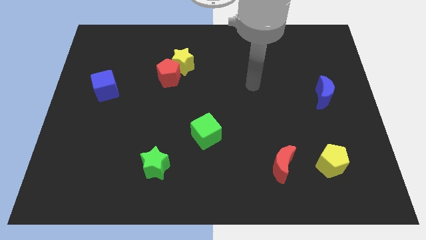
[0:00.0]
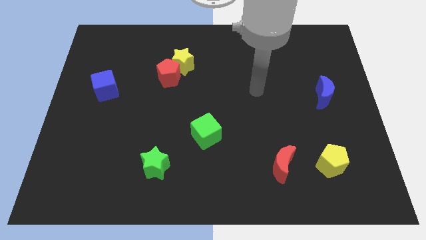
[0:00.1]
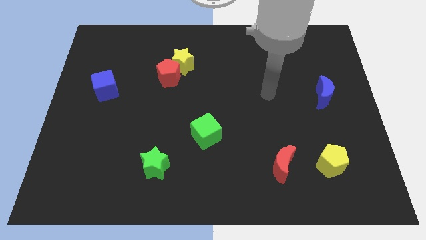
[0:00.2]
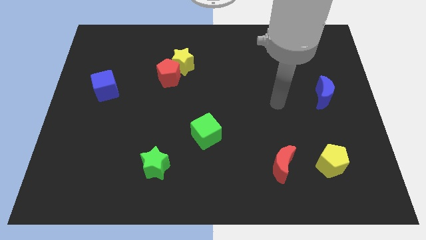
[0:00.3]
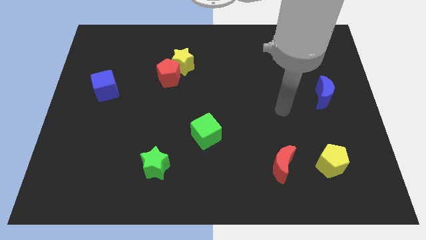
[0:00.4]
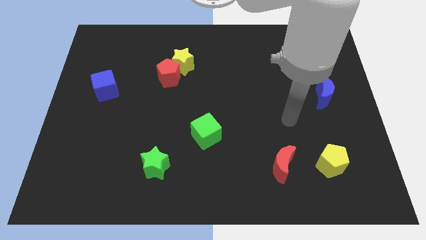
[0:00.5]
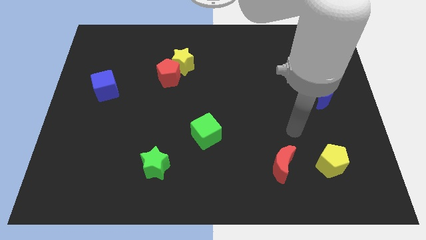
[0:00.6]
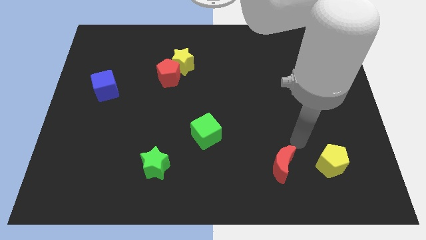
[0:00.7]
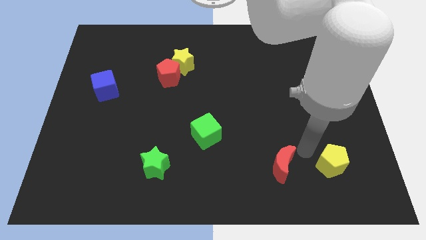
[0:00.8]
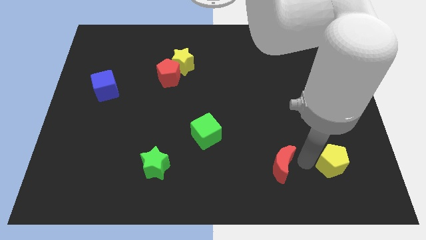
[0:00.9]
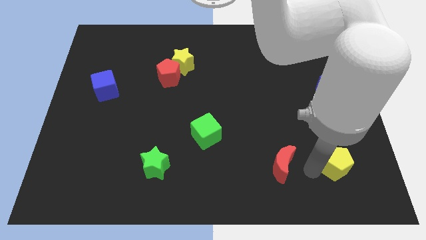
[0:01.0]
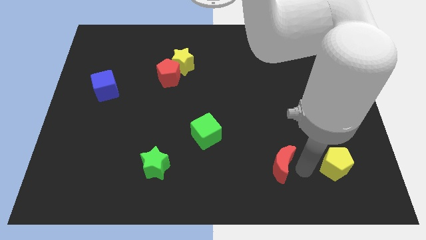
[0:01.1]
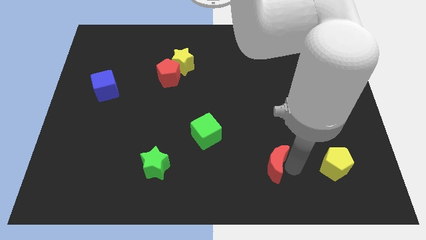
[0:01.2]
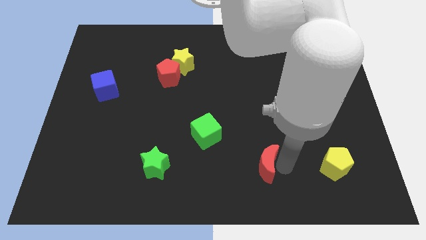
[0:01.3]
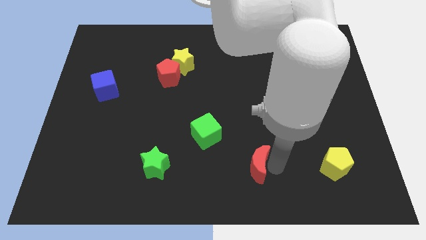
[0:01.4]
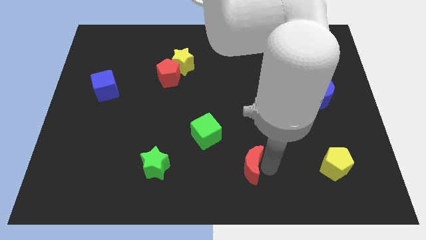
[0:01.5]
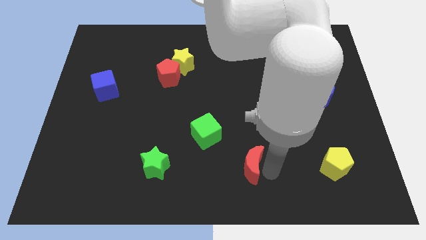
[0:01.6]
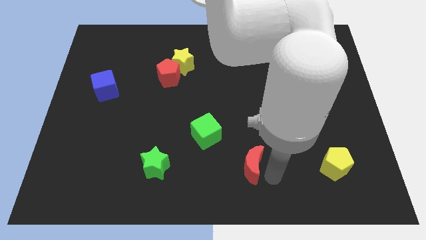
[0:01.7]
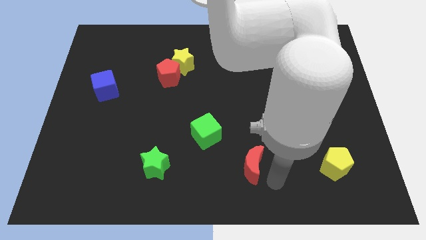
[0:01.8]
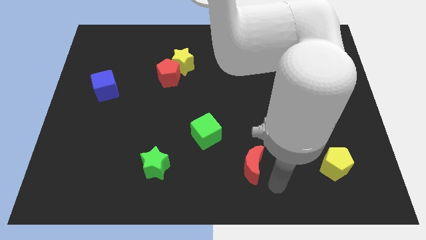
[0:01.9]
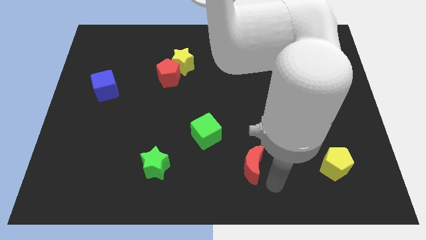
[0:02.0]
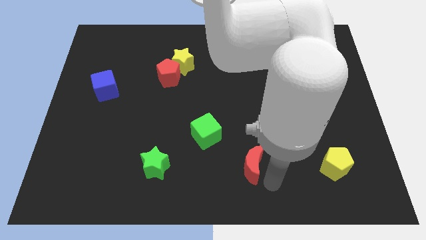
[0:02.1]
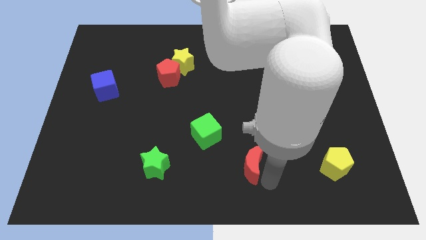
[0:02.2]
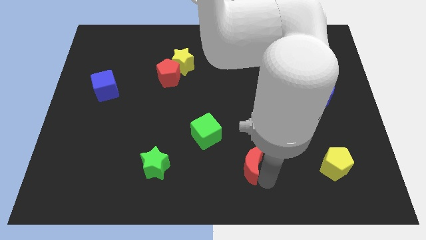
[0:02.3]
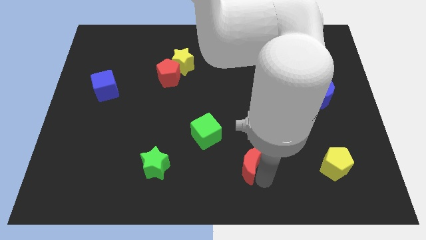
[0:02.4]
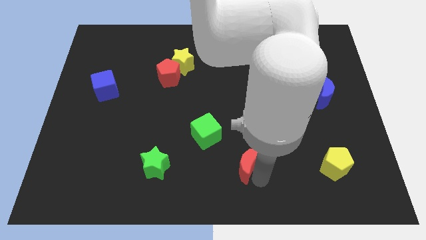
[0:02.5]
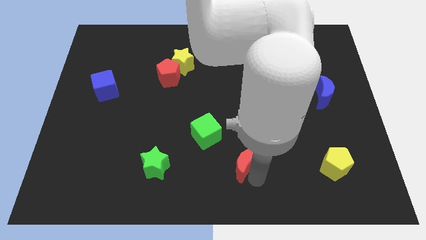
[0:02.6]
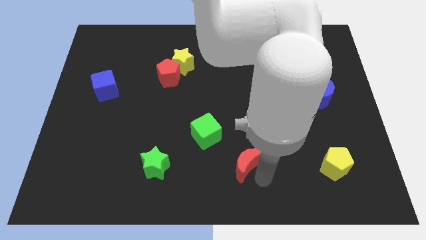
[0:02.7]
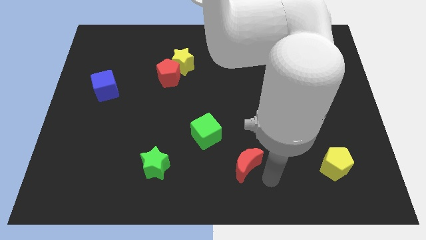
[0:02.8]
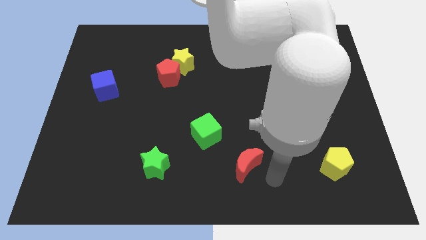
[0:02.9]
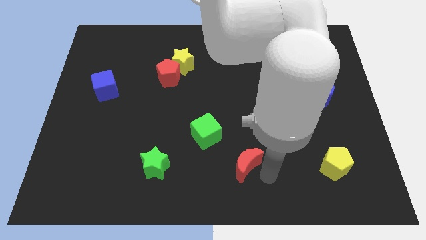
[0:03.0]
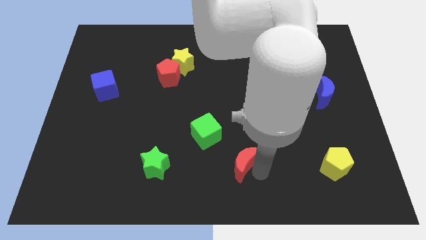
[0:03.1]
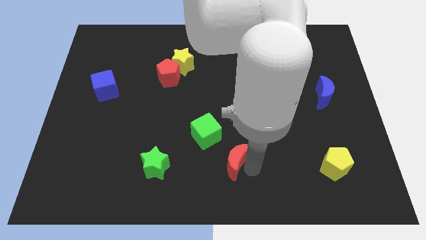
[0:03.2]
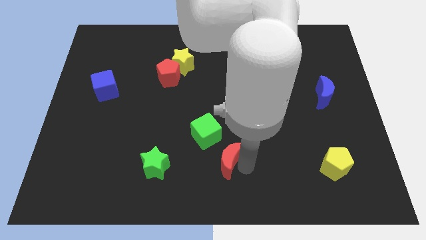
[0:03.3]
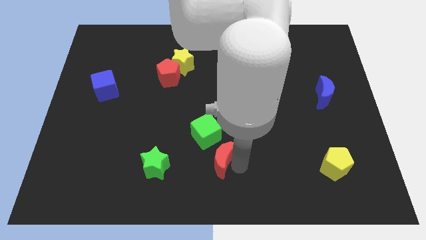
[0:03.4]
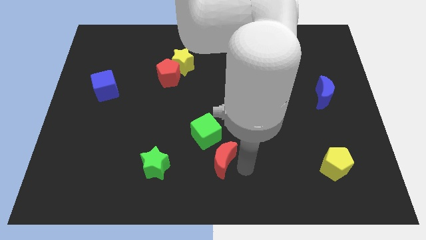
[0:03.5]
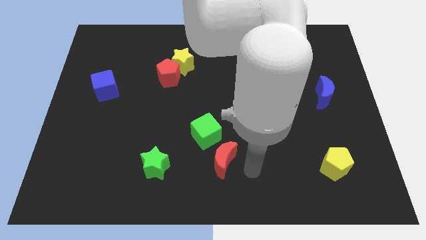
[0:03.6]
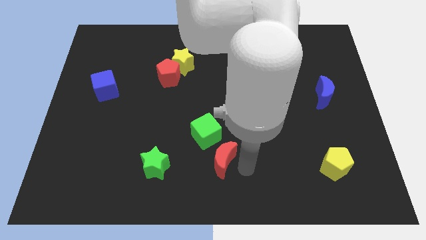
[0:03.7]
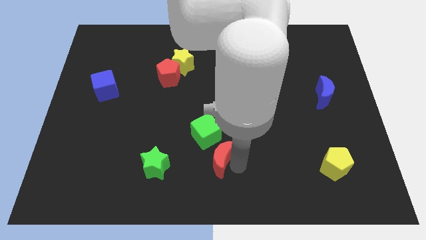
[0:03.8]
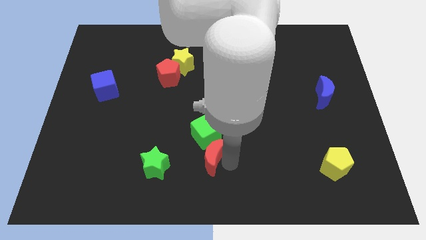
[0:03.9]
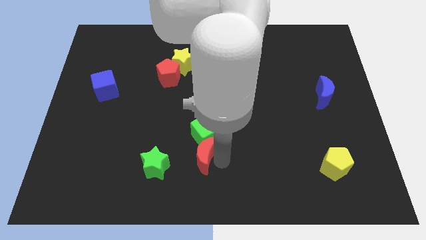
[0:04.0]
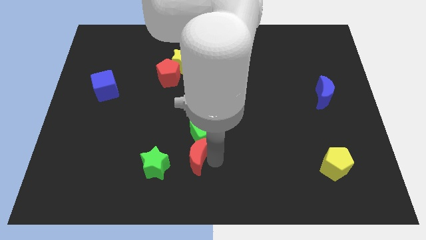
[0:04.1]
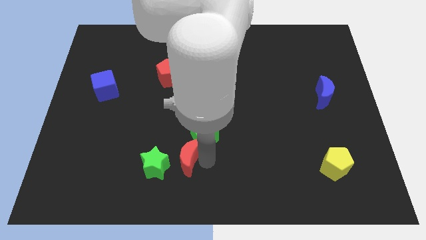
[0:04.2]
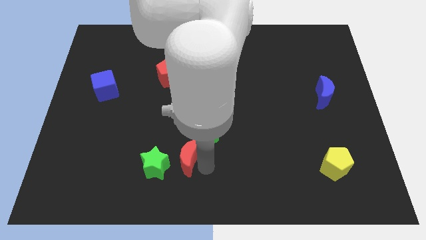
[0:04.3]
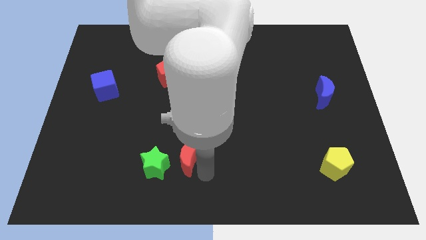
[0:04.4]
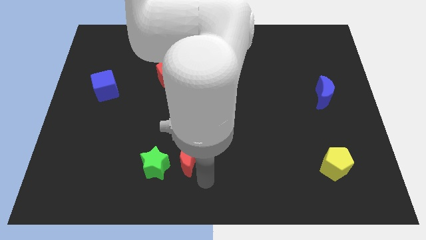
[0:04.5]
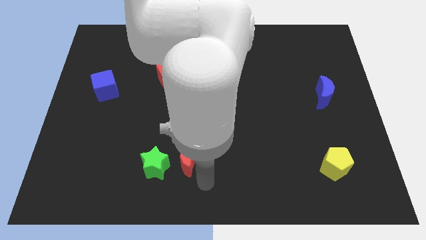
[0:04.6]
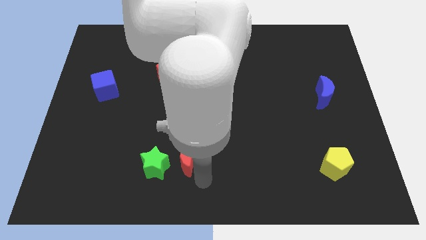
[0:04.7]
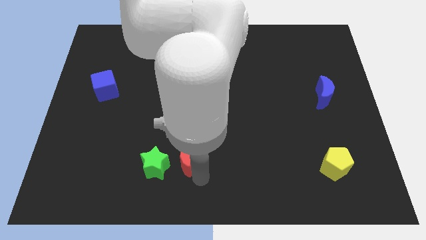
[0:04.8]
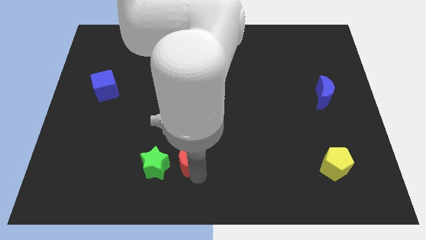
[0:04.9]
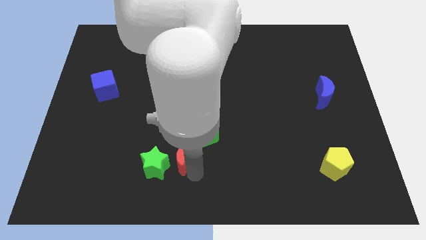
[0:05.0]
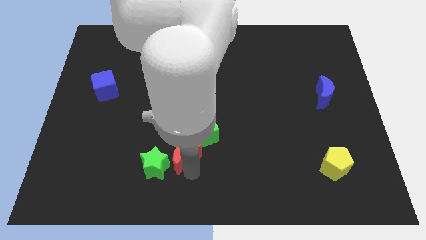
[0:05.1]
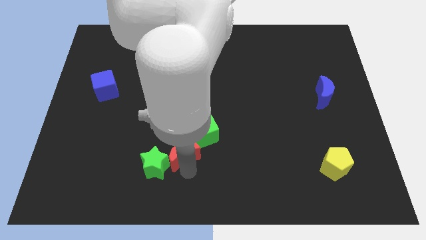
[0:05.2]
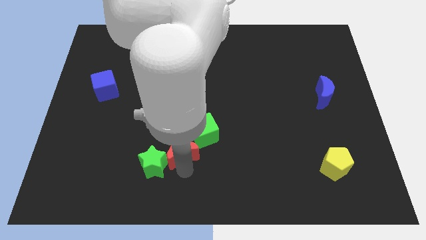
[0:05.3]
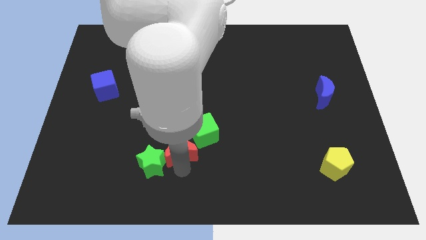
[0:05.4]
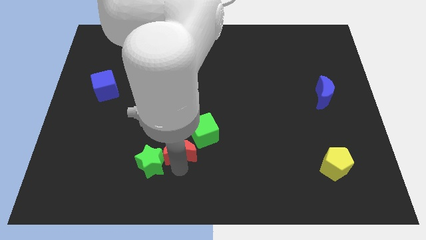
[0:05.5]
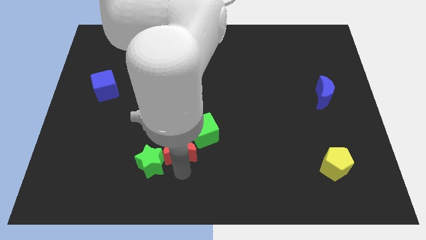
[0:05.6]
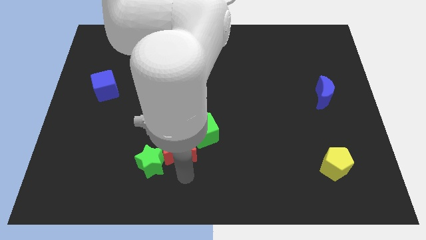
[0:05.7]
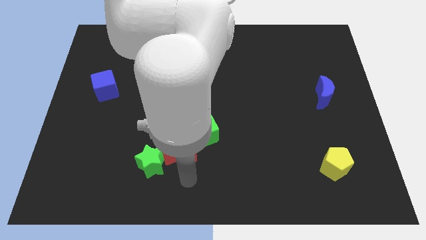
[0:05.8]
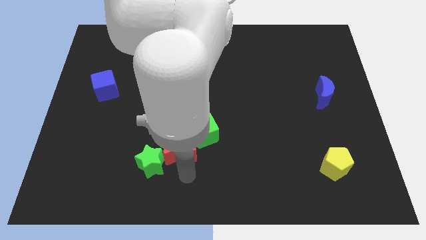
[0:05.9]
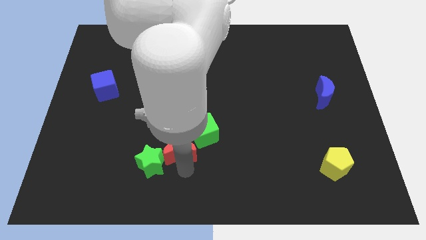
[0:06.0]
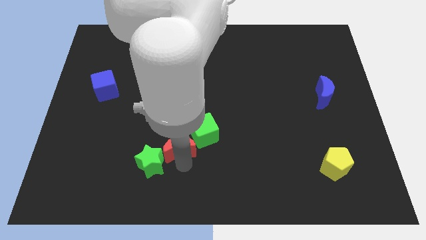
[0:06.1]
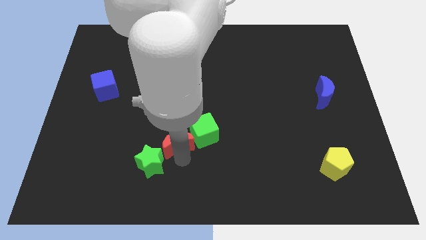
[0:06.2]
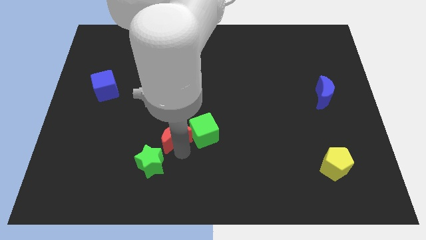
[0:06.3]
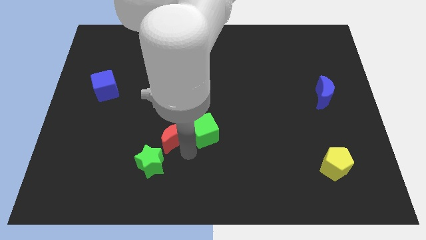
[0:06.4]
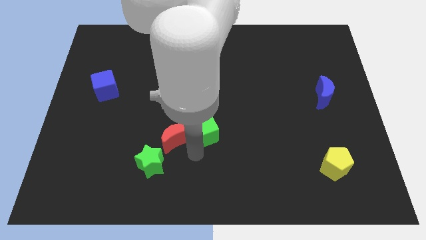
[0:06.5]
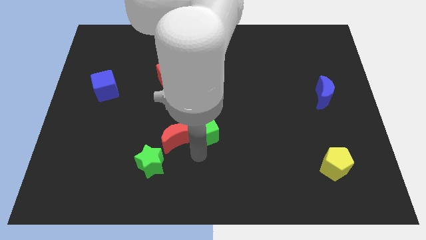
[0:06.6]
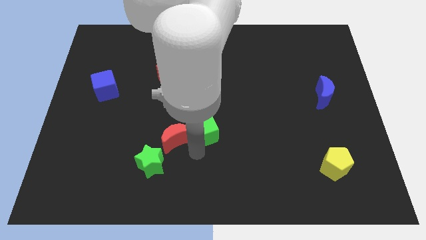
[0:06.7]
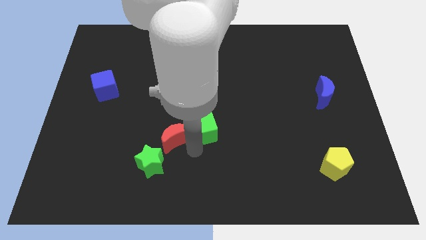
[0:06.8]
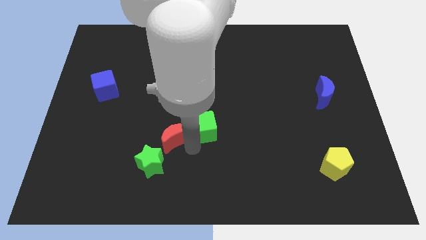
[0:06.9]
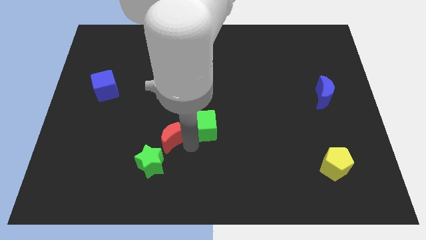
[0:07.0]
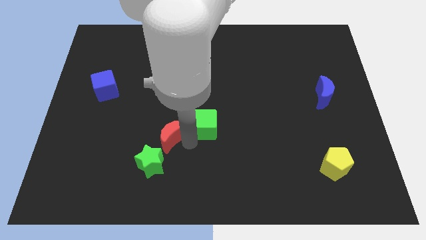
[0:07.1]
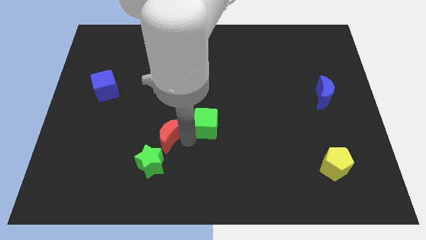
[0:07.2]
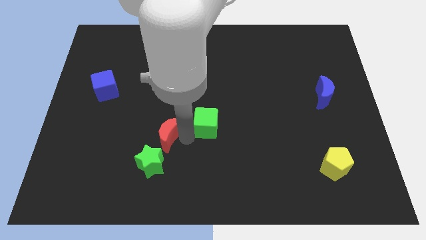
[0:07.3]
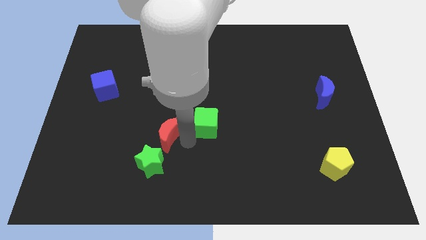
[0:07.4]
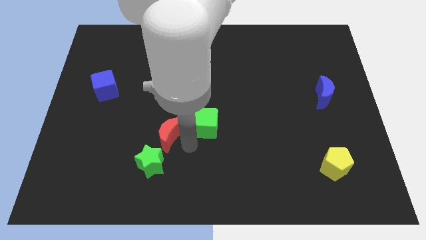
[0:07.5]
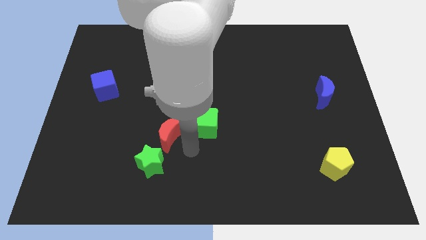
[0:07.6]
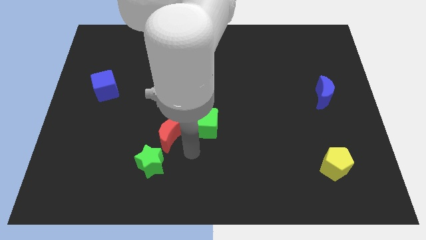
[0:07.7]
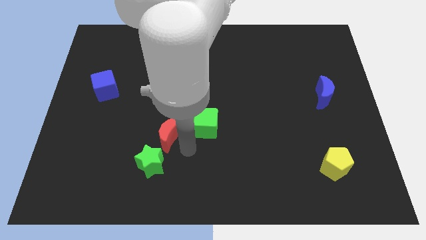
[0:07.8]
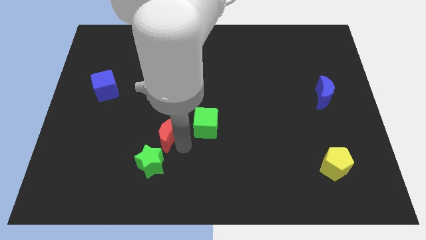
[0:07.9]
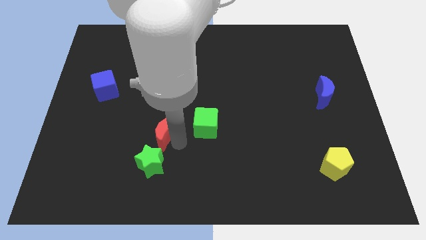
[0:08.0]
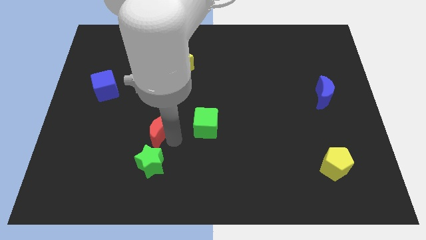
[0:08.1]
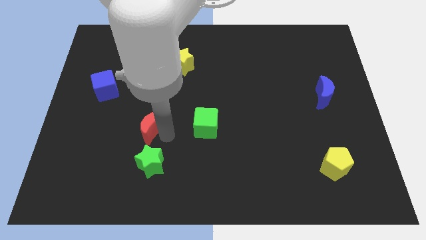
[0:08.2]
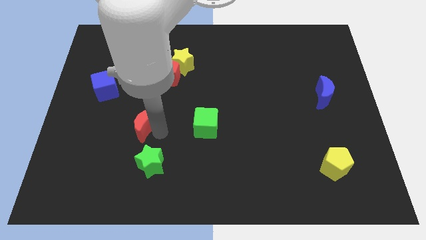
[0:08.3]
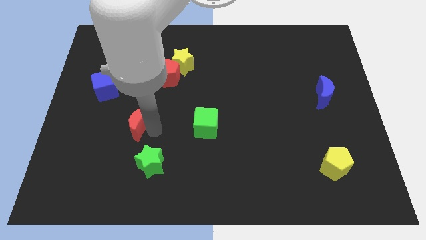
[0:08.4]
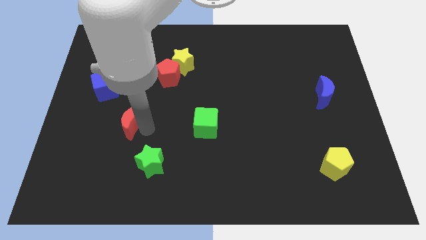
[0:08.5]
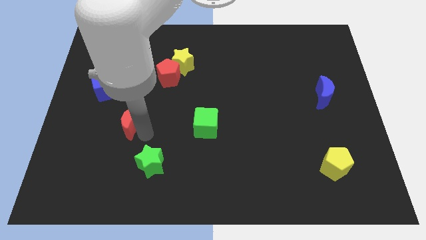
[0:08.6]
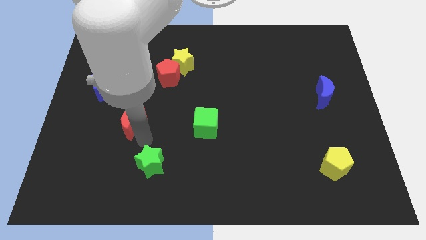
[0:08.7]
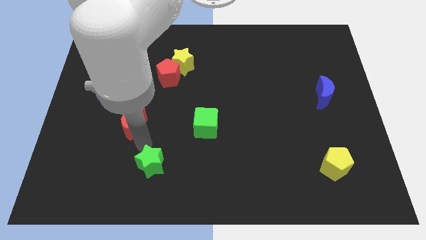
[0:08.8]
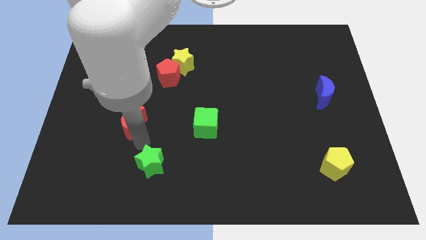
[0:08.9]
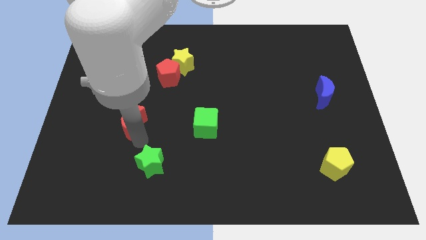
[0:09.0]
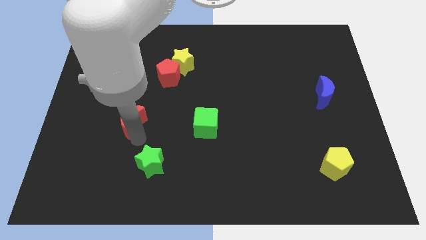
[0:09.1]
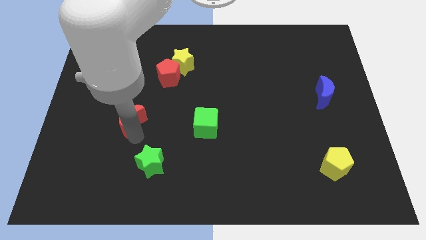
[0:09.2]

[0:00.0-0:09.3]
put the red moon to the bottom right side of the blue cube
